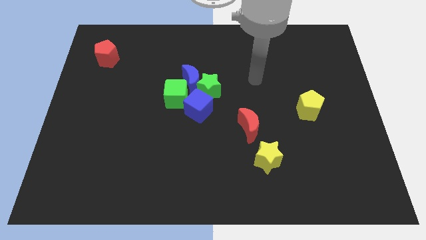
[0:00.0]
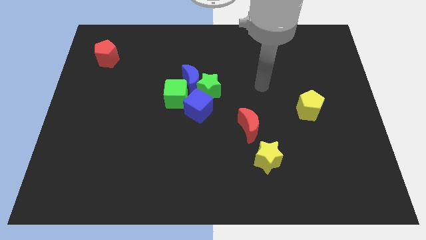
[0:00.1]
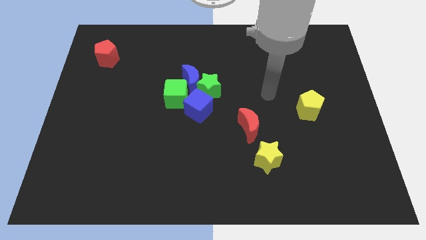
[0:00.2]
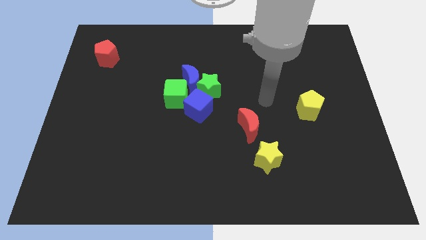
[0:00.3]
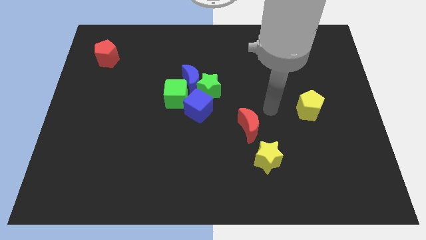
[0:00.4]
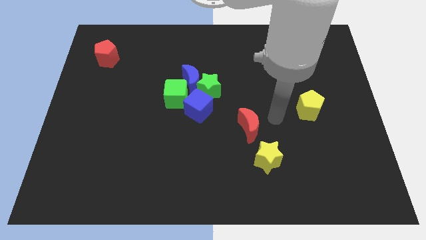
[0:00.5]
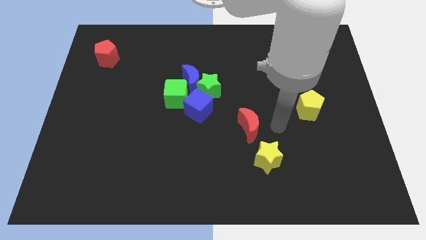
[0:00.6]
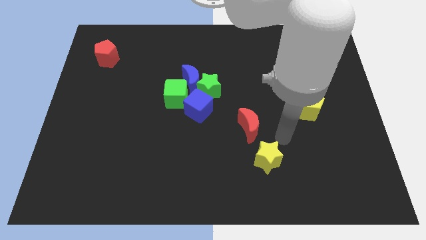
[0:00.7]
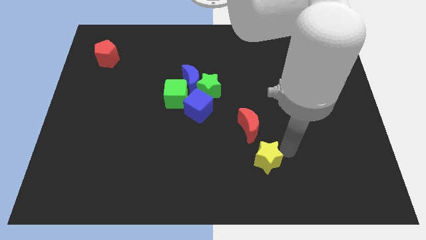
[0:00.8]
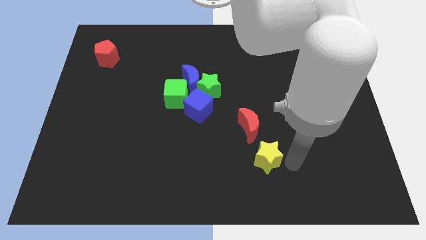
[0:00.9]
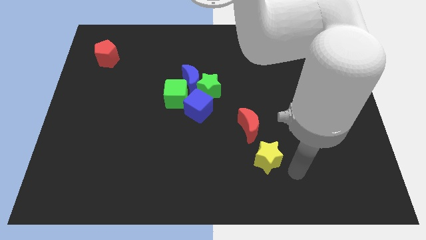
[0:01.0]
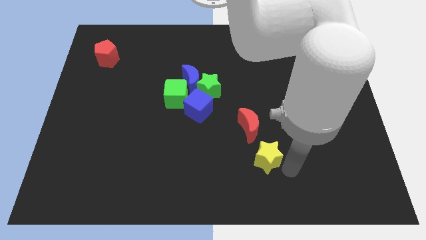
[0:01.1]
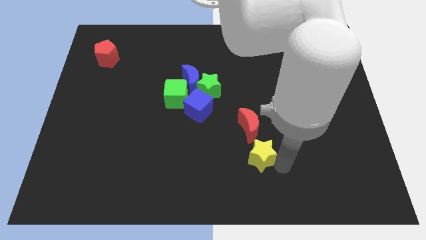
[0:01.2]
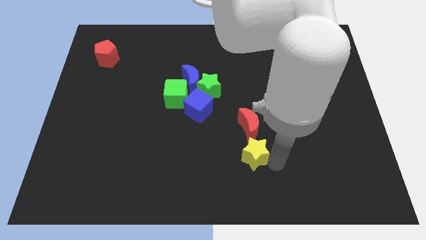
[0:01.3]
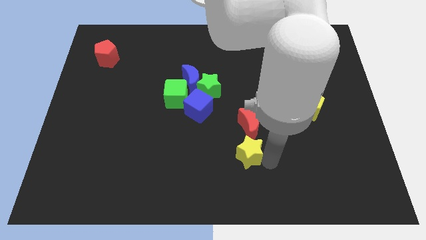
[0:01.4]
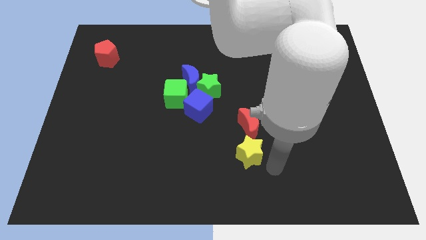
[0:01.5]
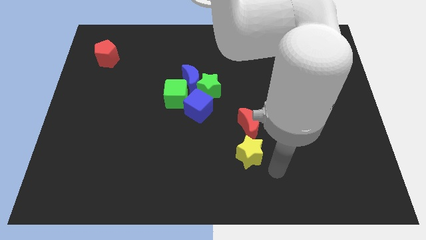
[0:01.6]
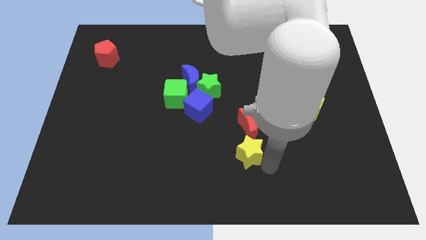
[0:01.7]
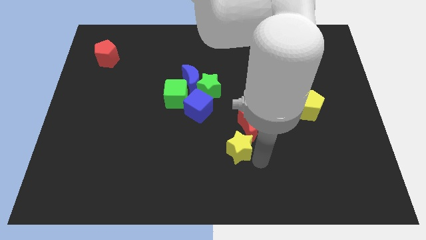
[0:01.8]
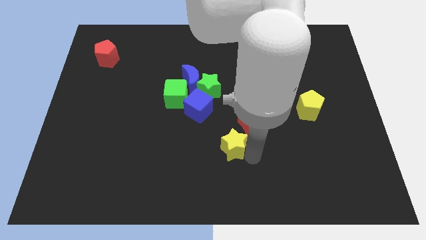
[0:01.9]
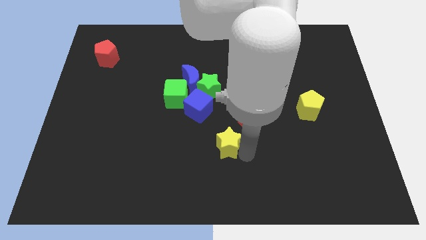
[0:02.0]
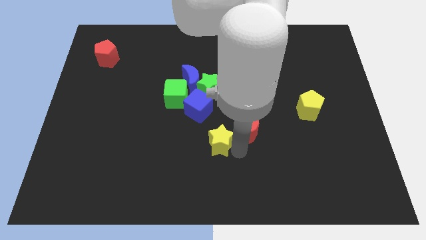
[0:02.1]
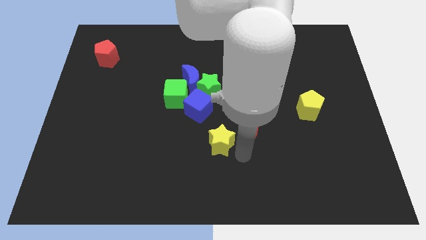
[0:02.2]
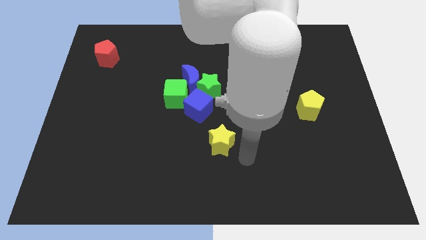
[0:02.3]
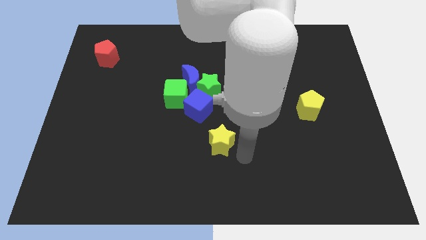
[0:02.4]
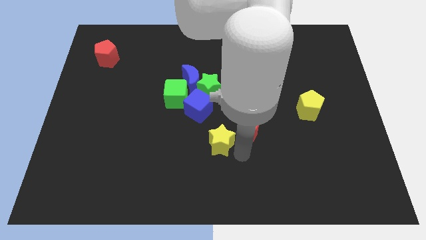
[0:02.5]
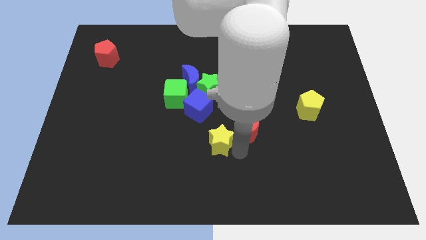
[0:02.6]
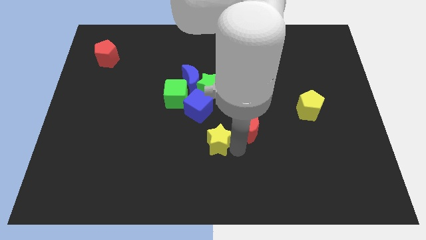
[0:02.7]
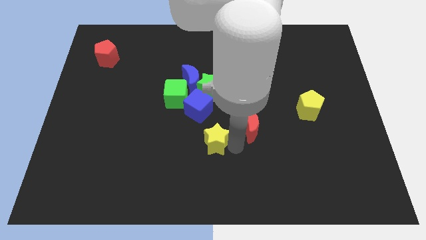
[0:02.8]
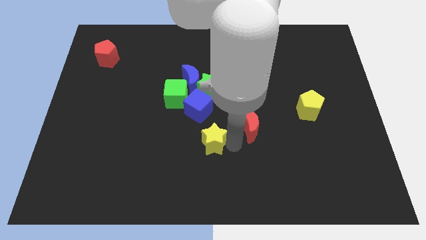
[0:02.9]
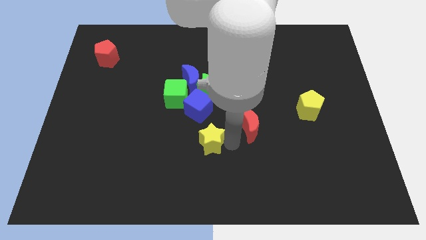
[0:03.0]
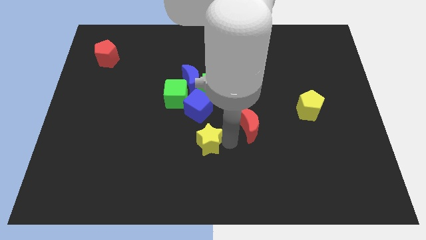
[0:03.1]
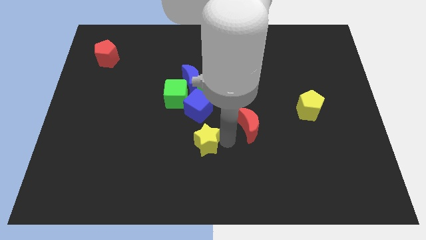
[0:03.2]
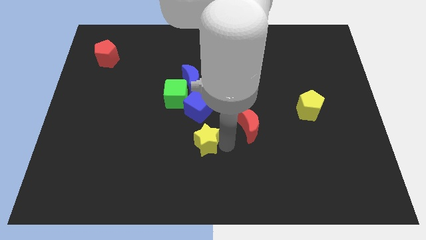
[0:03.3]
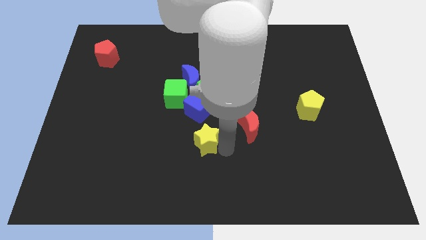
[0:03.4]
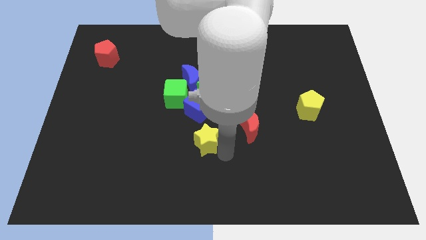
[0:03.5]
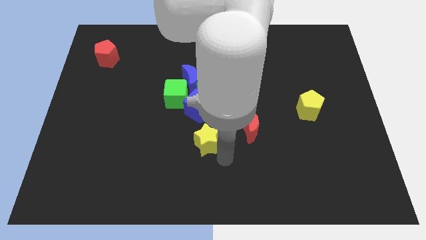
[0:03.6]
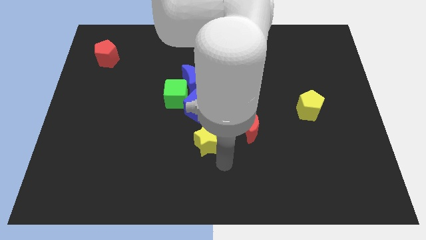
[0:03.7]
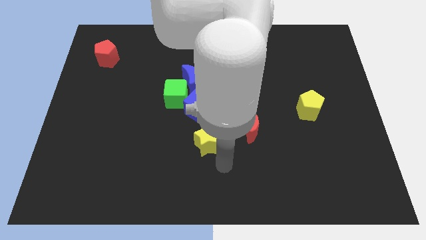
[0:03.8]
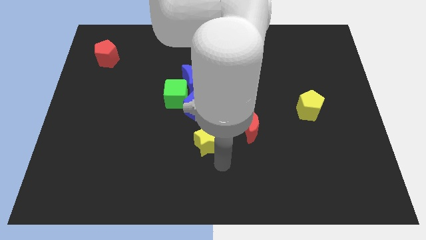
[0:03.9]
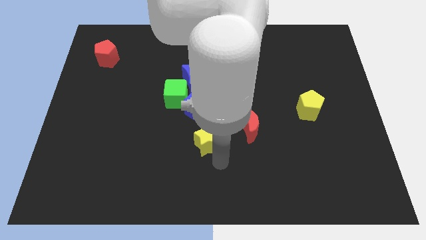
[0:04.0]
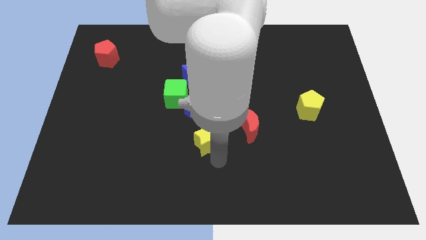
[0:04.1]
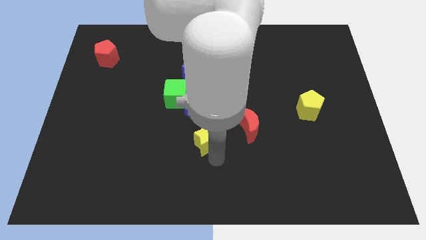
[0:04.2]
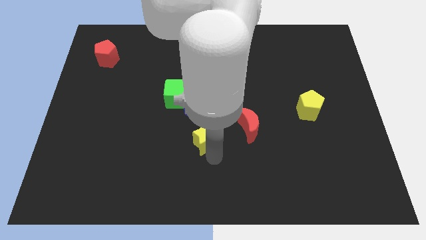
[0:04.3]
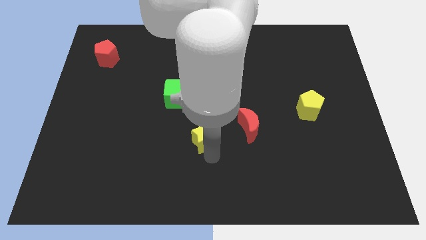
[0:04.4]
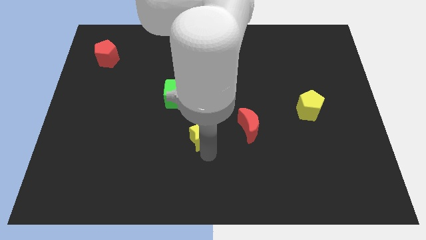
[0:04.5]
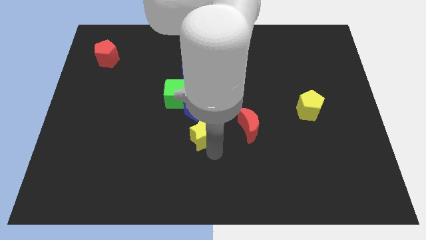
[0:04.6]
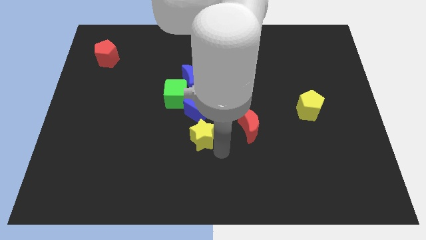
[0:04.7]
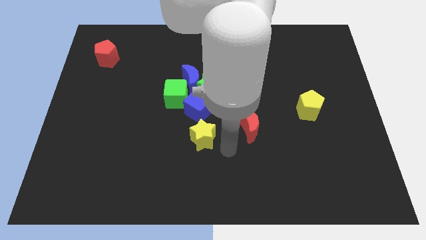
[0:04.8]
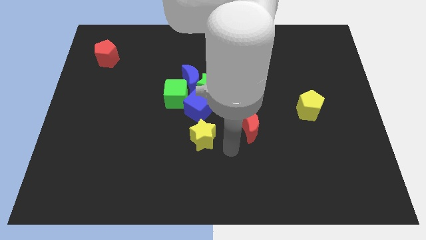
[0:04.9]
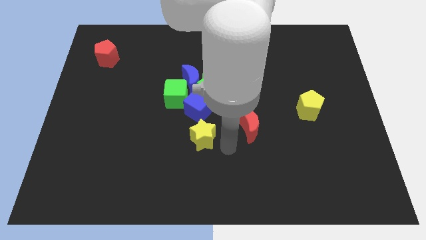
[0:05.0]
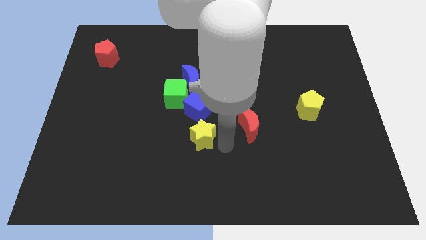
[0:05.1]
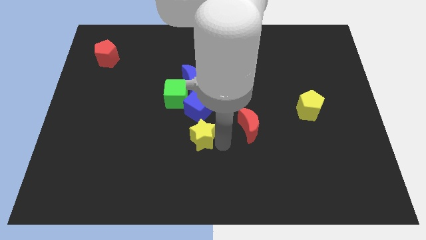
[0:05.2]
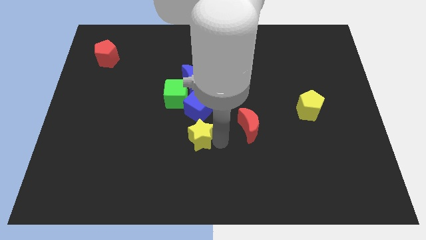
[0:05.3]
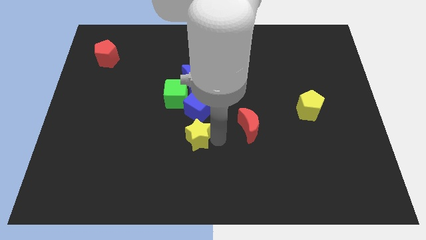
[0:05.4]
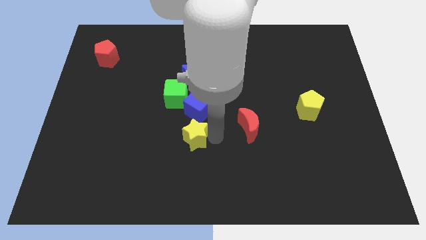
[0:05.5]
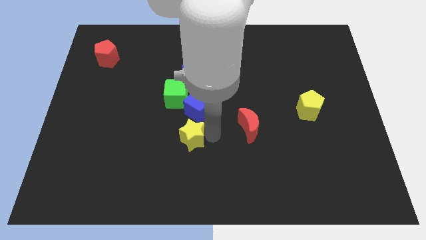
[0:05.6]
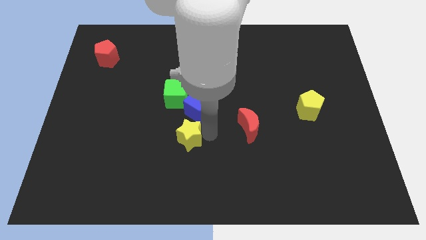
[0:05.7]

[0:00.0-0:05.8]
slide the yellow star to the bottom left of the blue cube
